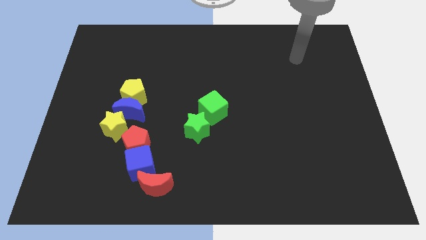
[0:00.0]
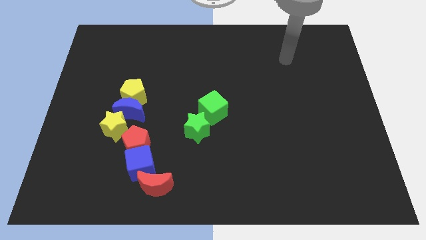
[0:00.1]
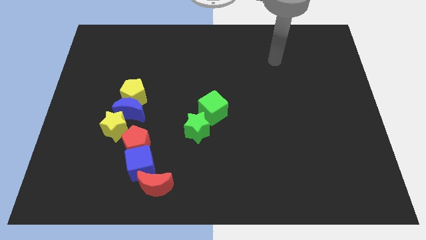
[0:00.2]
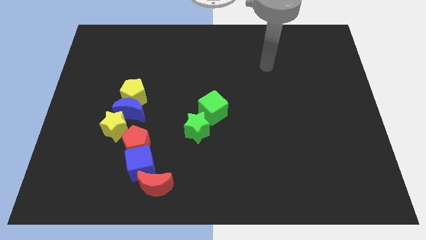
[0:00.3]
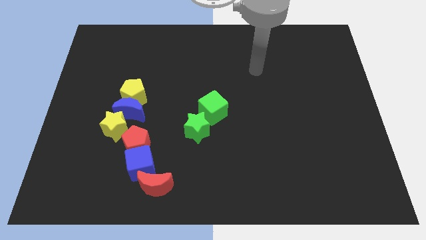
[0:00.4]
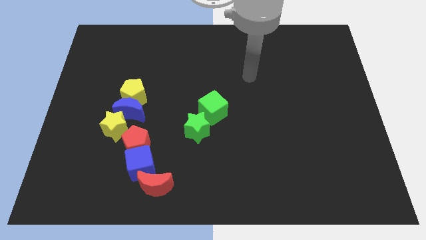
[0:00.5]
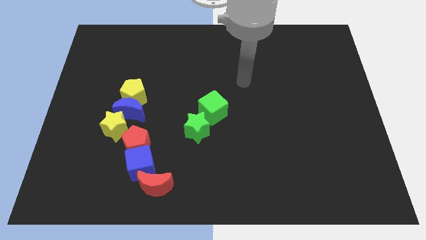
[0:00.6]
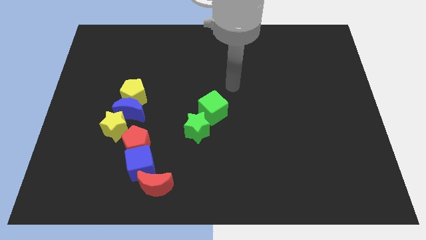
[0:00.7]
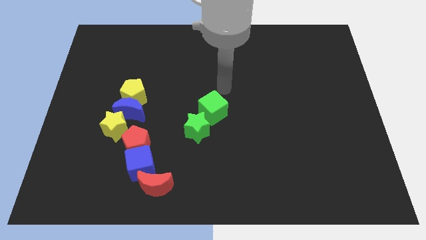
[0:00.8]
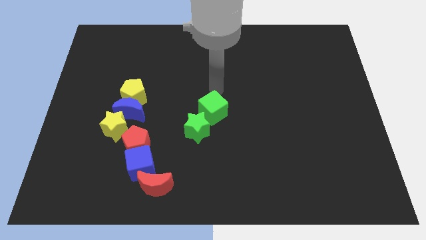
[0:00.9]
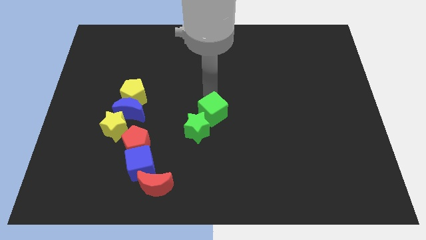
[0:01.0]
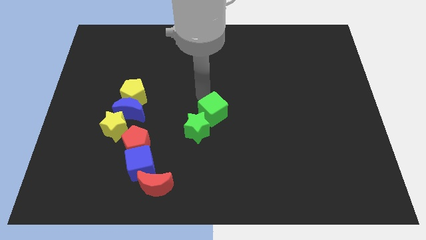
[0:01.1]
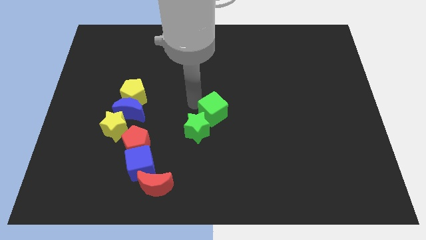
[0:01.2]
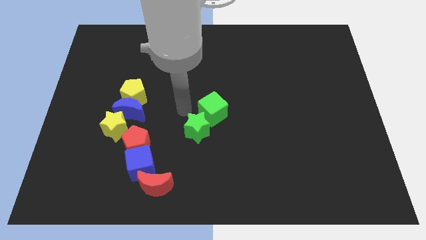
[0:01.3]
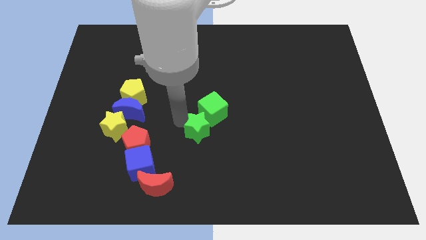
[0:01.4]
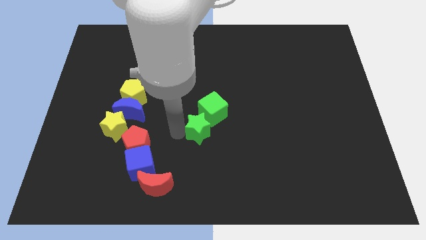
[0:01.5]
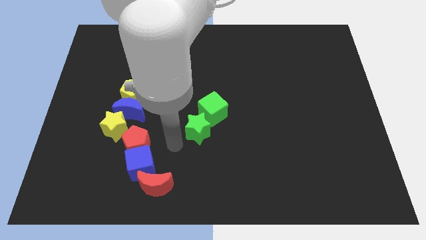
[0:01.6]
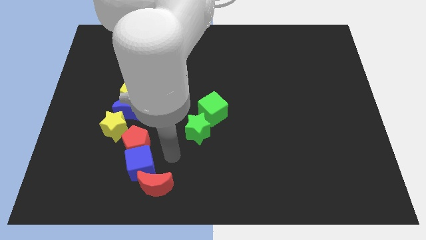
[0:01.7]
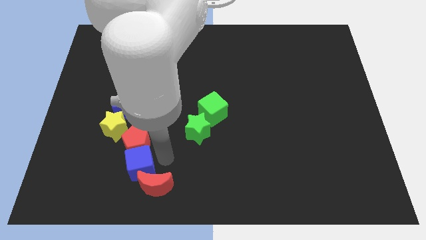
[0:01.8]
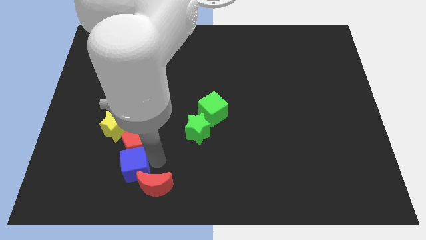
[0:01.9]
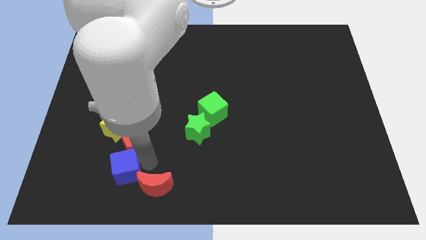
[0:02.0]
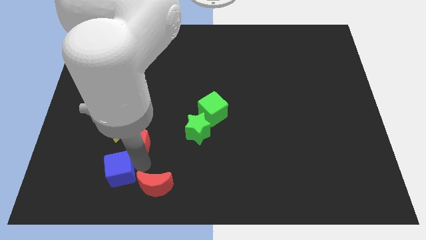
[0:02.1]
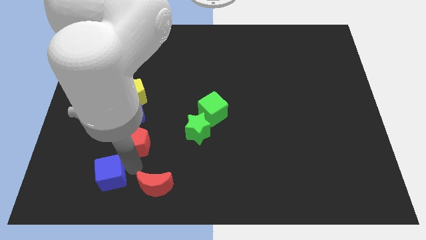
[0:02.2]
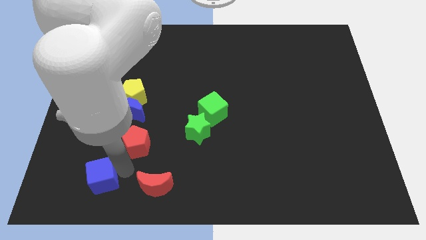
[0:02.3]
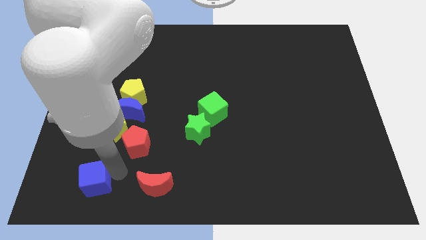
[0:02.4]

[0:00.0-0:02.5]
separate the blue cube from the red pentagon and red moon

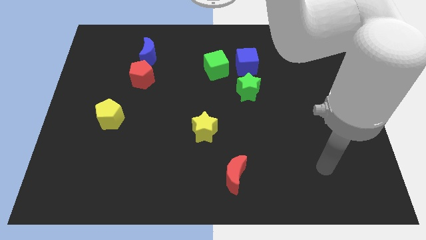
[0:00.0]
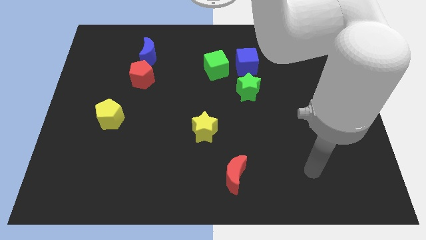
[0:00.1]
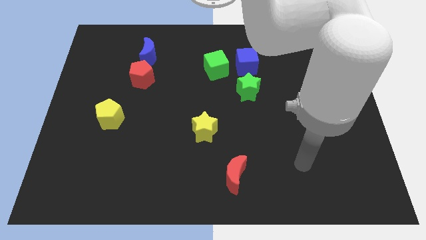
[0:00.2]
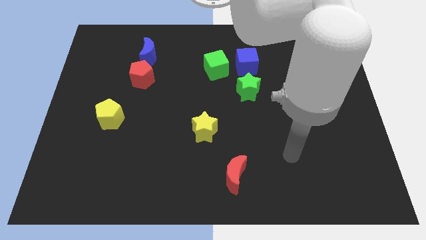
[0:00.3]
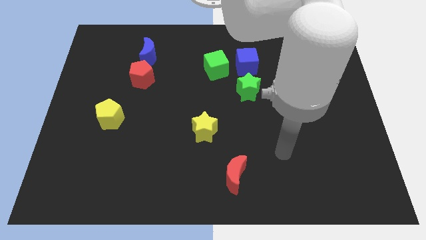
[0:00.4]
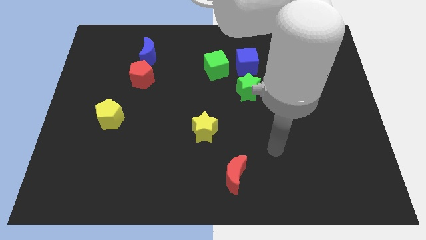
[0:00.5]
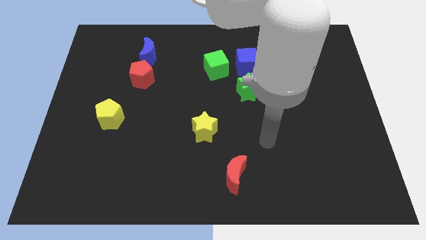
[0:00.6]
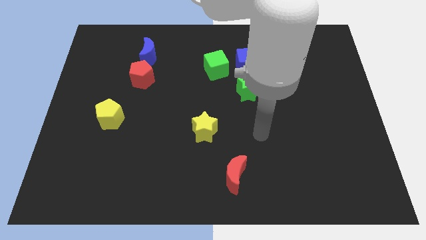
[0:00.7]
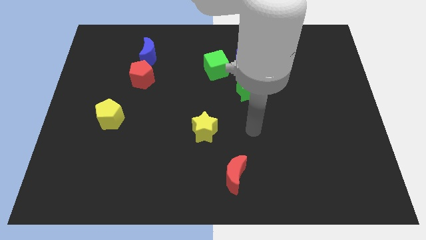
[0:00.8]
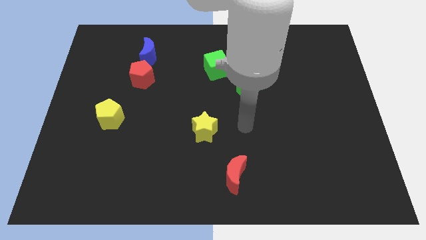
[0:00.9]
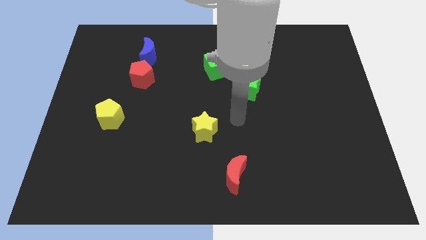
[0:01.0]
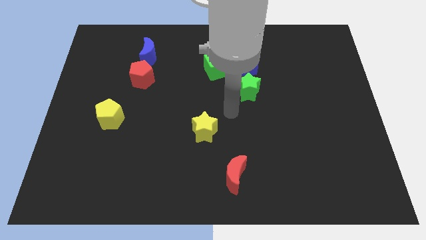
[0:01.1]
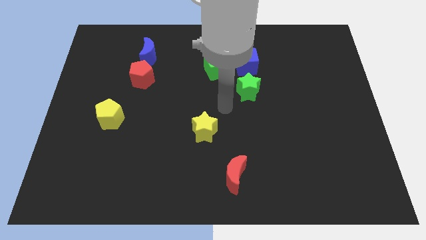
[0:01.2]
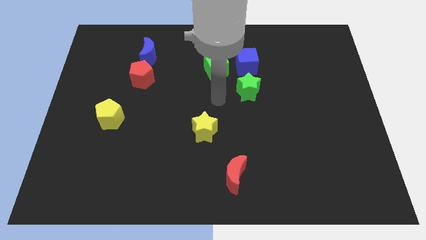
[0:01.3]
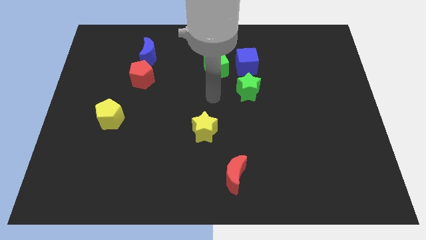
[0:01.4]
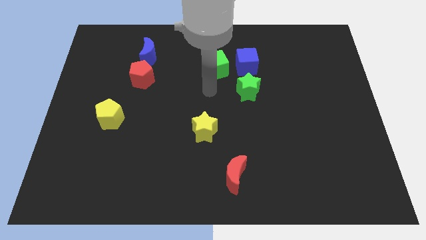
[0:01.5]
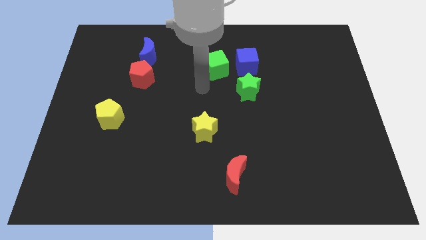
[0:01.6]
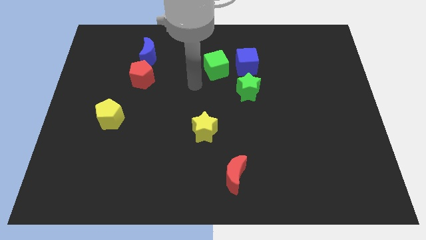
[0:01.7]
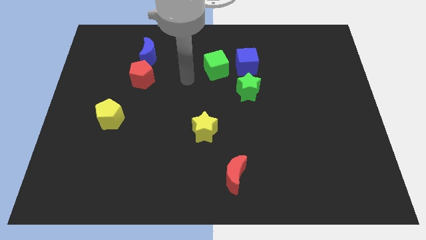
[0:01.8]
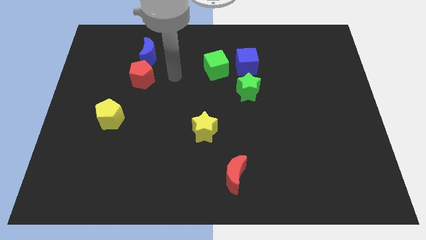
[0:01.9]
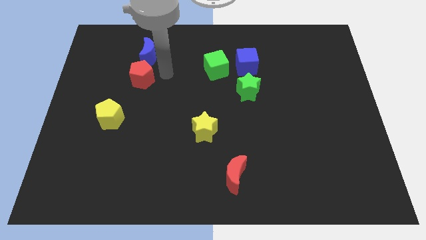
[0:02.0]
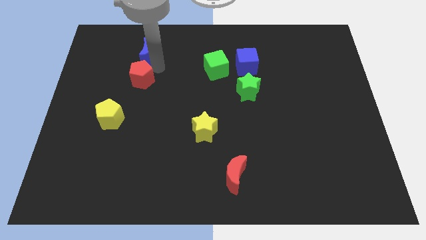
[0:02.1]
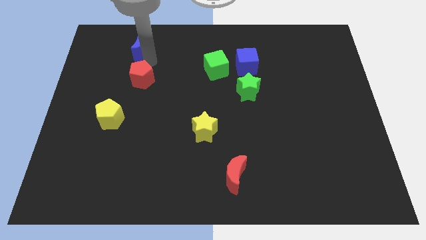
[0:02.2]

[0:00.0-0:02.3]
separate the red pentagon from the blue moon

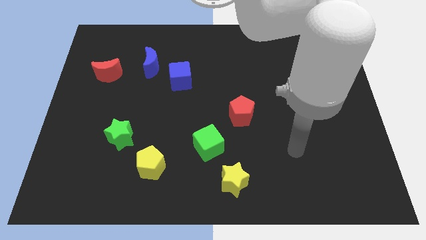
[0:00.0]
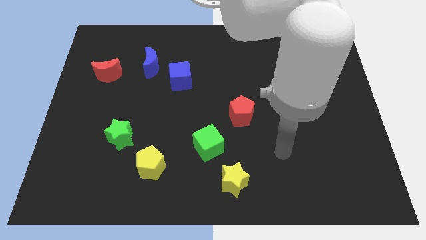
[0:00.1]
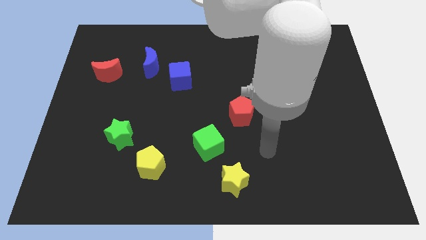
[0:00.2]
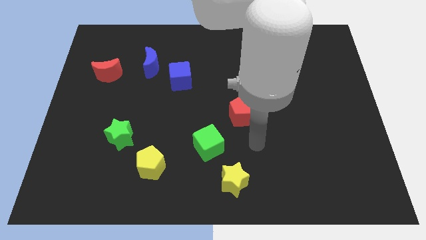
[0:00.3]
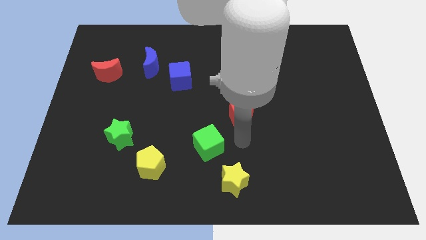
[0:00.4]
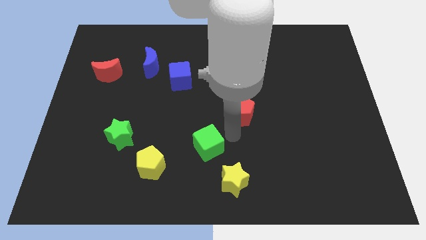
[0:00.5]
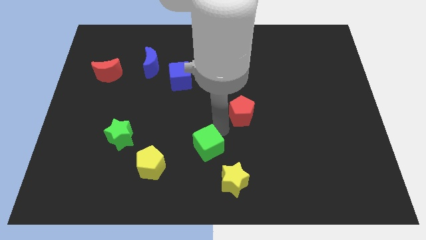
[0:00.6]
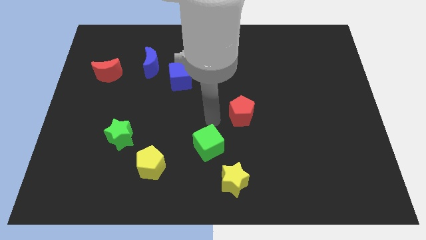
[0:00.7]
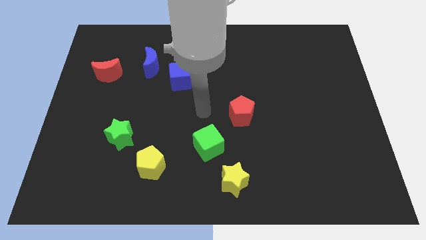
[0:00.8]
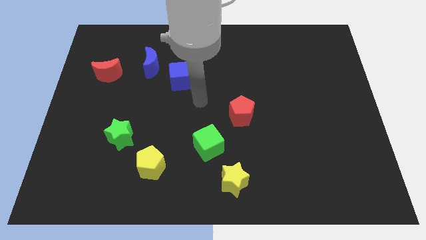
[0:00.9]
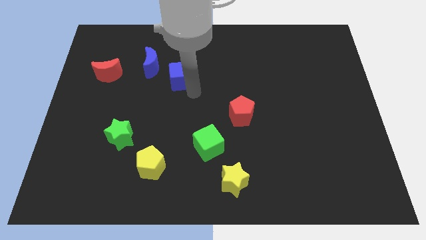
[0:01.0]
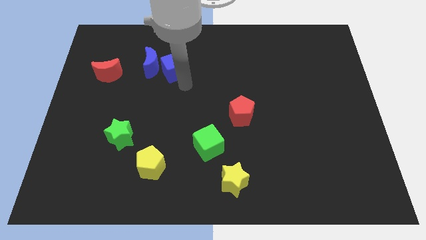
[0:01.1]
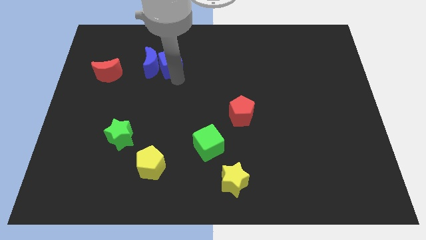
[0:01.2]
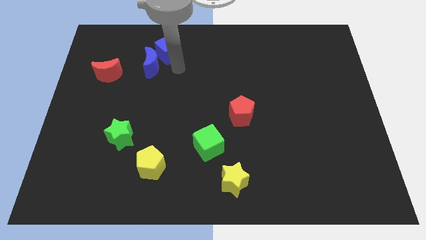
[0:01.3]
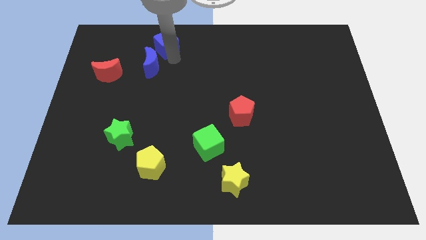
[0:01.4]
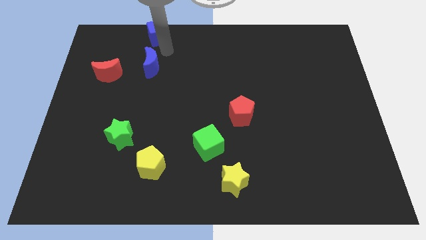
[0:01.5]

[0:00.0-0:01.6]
pull the blue moon apart from the blue cube

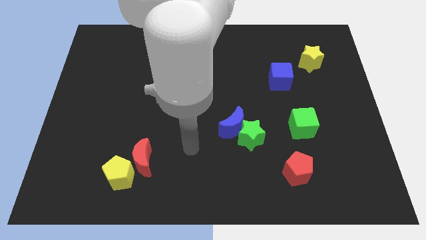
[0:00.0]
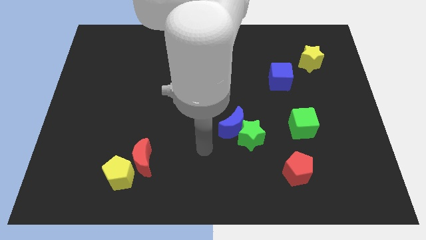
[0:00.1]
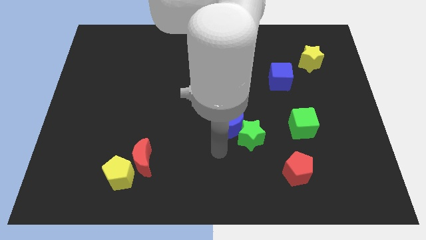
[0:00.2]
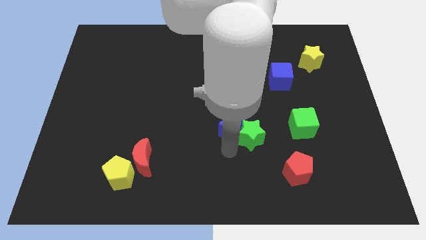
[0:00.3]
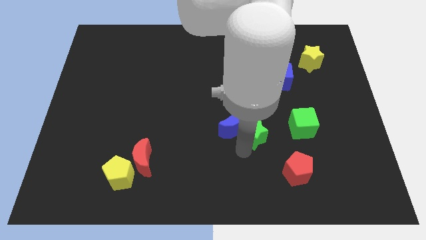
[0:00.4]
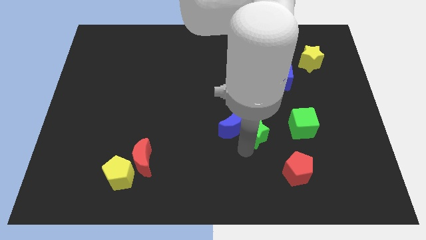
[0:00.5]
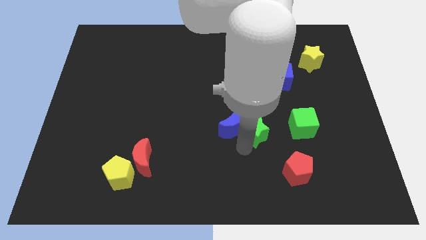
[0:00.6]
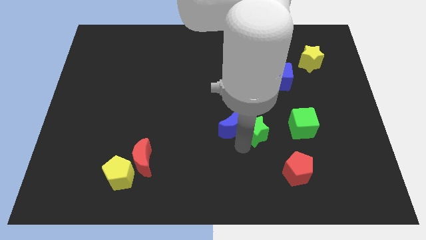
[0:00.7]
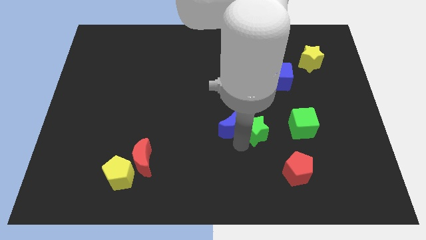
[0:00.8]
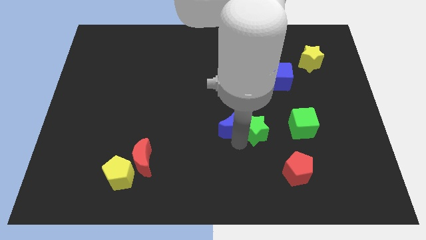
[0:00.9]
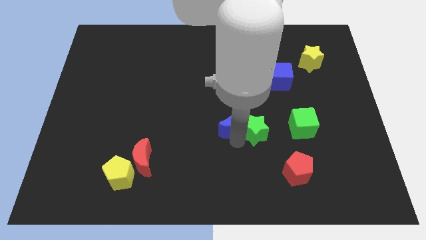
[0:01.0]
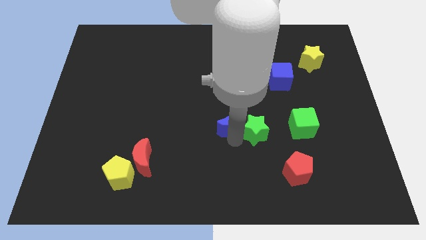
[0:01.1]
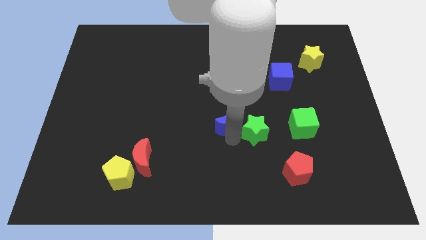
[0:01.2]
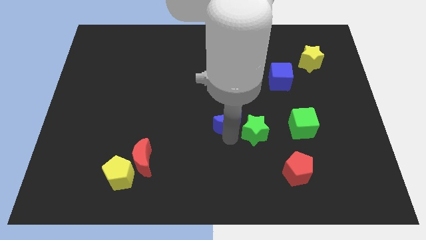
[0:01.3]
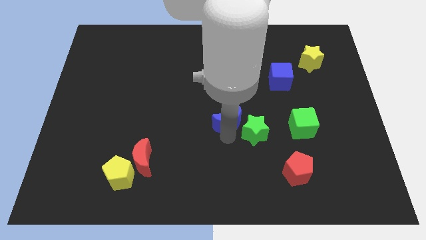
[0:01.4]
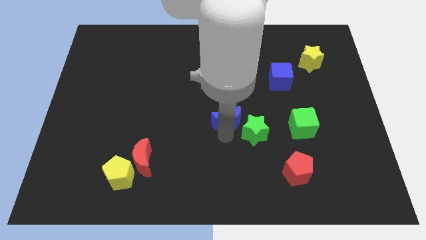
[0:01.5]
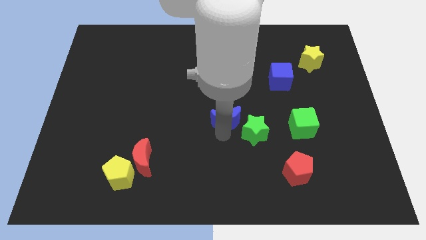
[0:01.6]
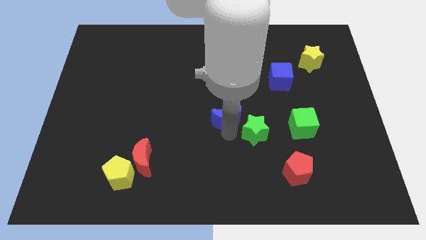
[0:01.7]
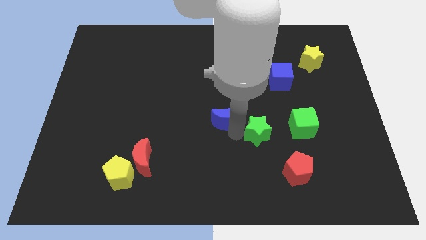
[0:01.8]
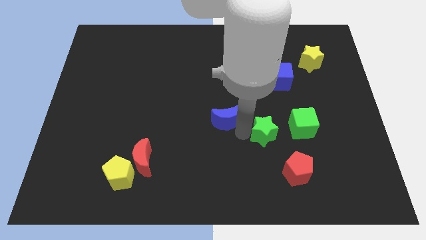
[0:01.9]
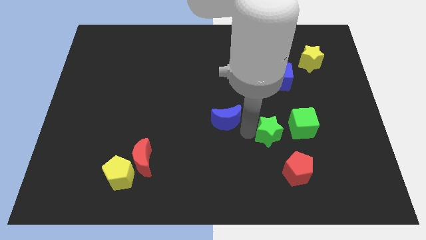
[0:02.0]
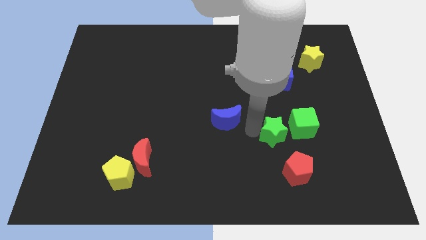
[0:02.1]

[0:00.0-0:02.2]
pull the blue moon apart from the green star

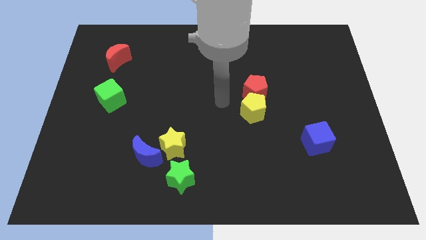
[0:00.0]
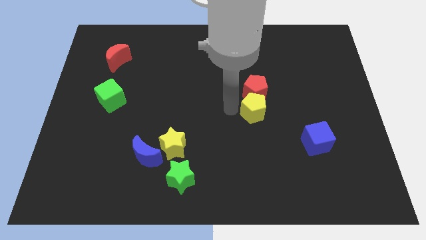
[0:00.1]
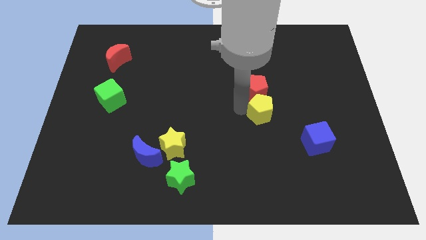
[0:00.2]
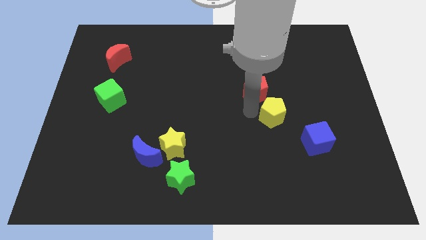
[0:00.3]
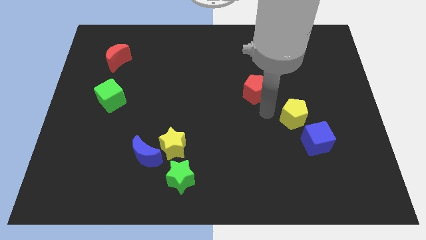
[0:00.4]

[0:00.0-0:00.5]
pull the red pentagon apart from the yellow pentagon

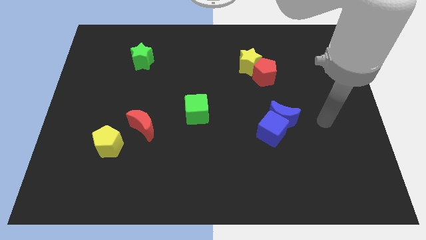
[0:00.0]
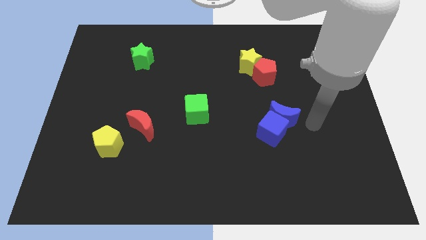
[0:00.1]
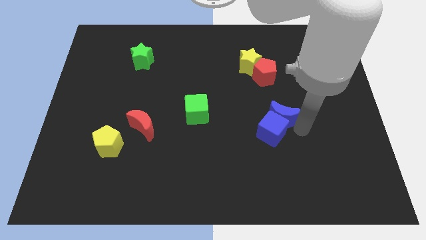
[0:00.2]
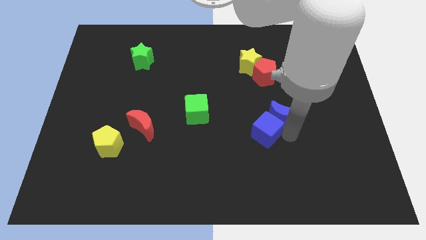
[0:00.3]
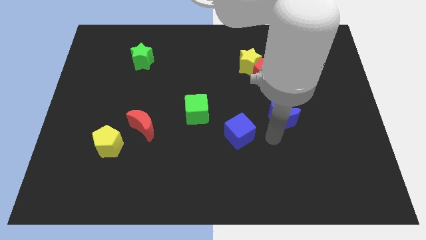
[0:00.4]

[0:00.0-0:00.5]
move the blue moon away from the blue cube
